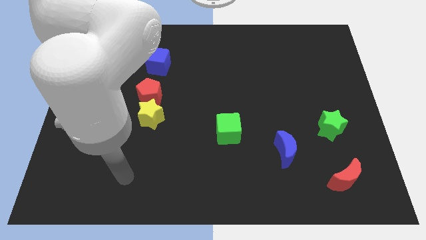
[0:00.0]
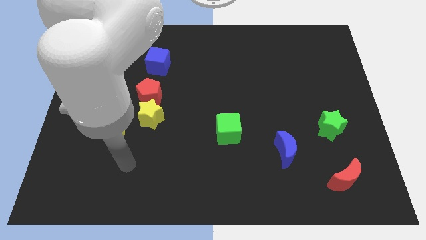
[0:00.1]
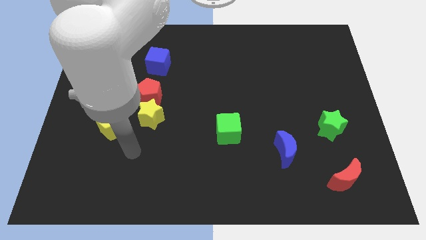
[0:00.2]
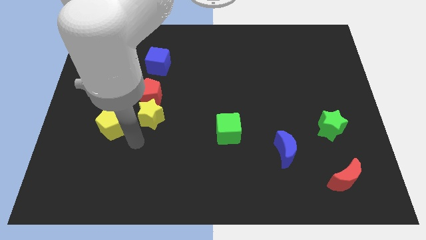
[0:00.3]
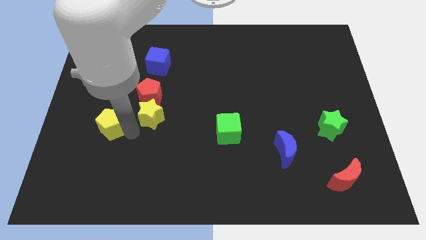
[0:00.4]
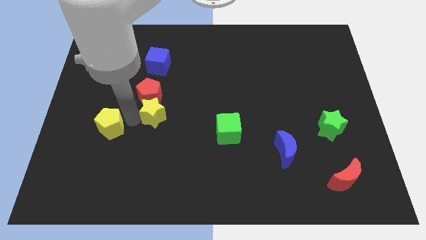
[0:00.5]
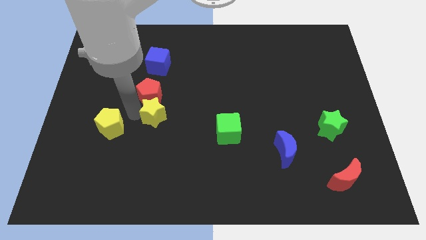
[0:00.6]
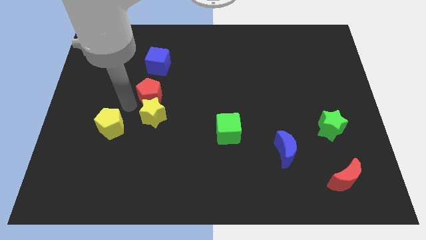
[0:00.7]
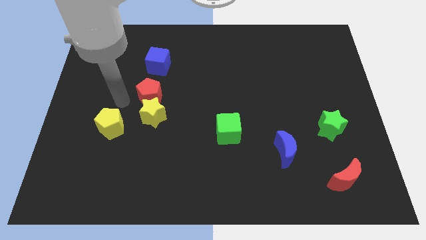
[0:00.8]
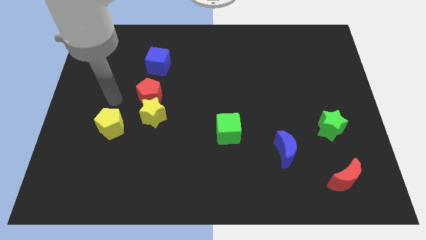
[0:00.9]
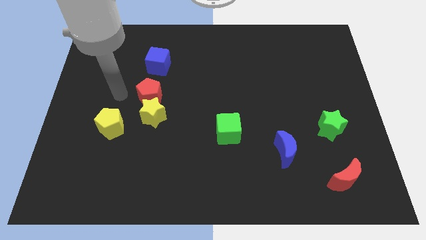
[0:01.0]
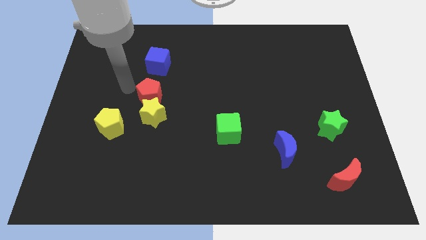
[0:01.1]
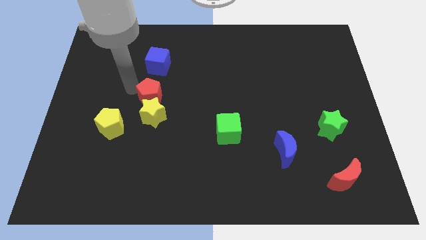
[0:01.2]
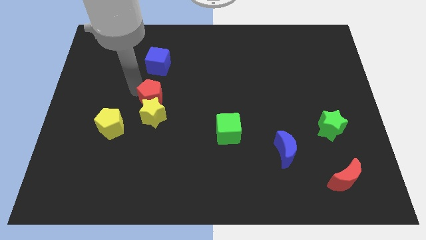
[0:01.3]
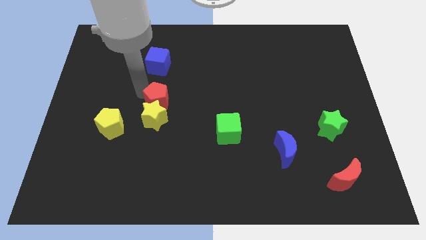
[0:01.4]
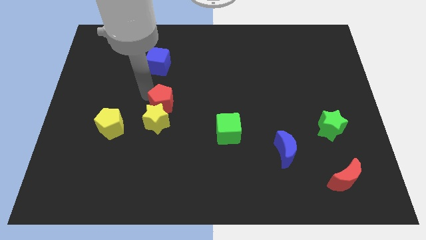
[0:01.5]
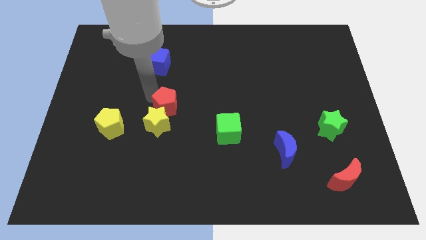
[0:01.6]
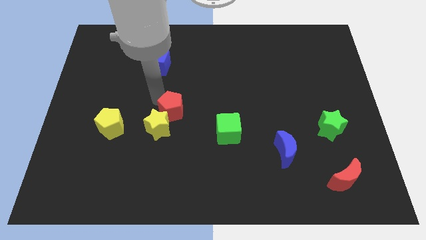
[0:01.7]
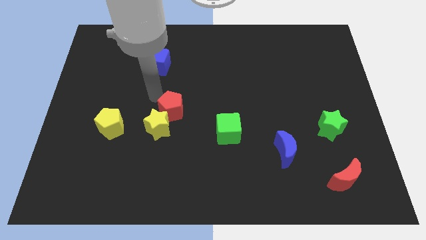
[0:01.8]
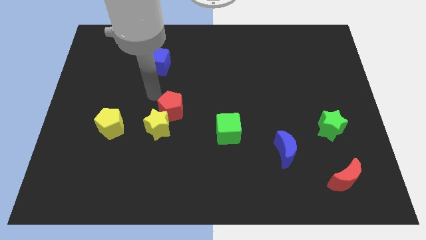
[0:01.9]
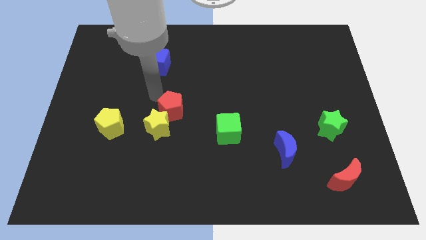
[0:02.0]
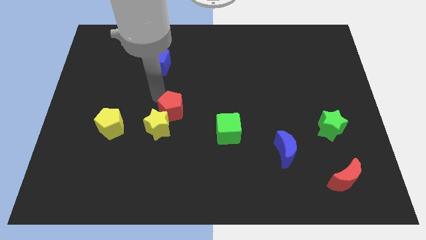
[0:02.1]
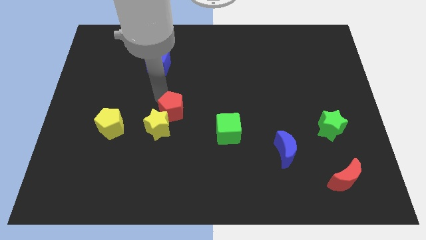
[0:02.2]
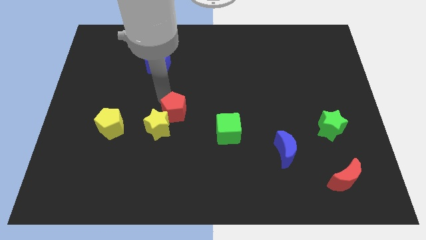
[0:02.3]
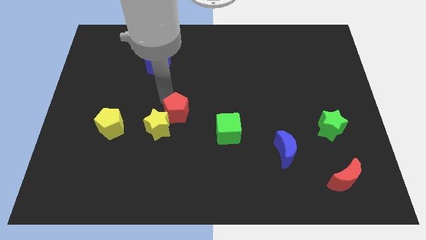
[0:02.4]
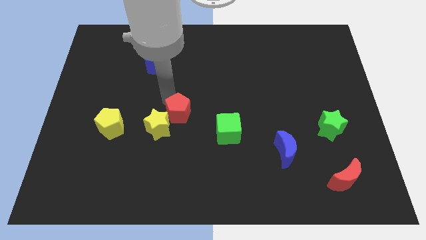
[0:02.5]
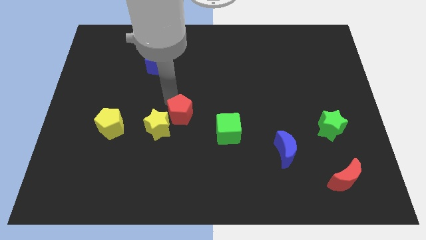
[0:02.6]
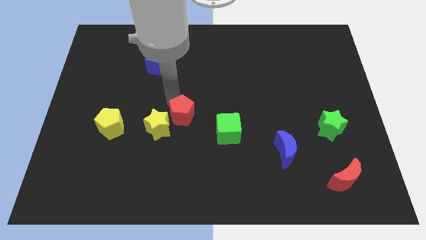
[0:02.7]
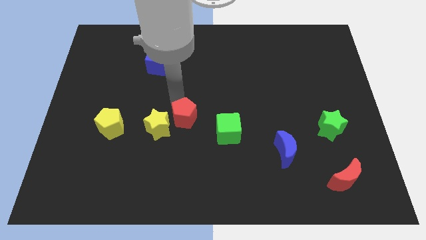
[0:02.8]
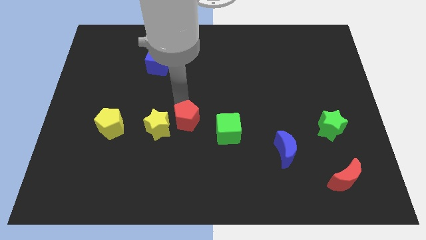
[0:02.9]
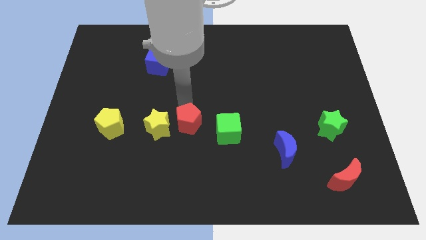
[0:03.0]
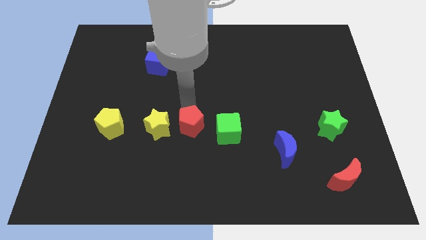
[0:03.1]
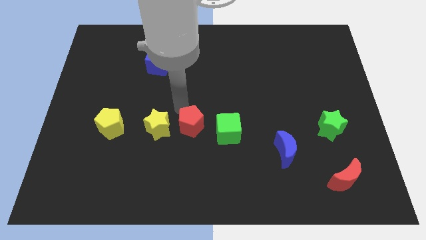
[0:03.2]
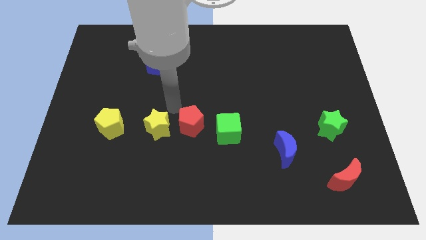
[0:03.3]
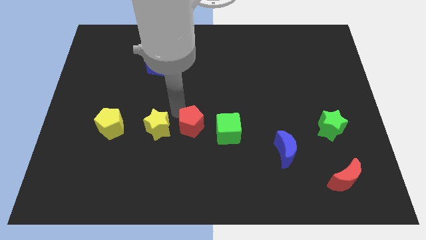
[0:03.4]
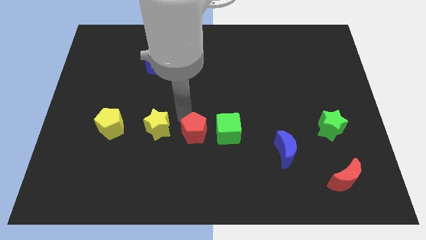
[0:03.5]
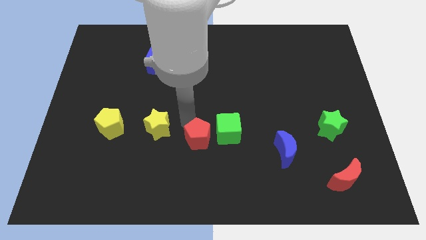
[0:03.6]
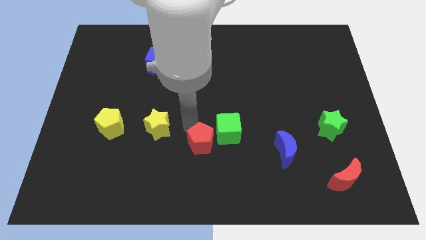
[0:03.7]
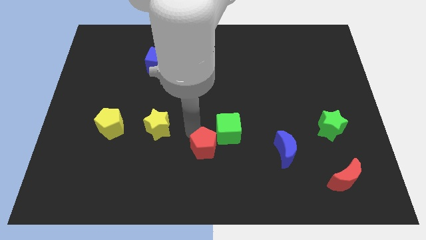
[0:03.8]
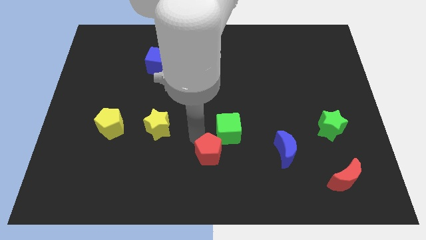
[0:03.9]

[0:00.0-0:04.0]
slide the red pentagon down and right

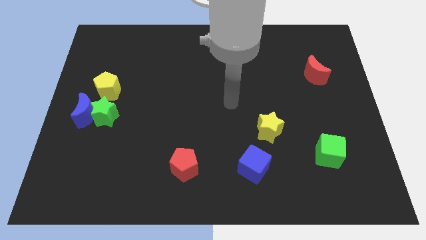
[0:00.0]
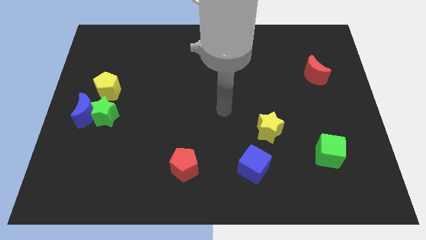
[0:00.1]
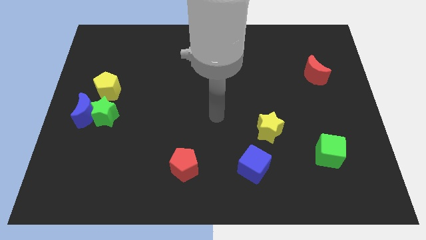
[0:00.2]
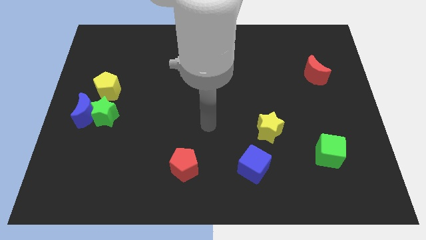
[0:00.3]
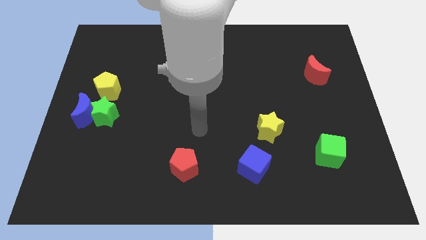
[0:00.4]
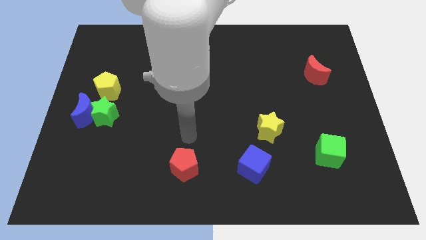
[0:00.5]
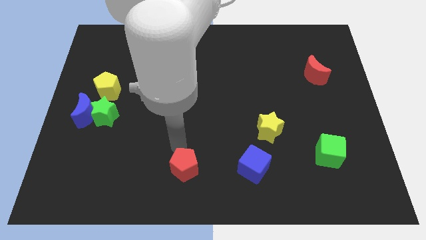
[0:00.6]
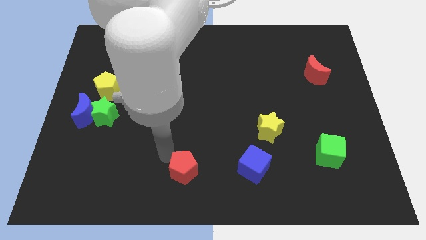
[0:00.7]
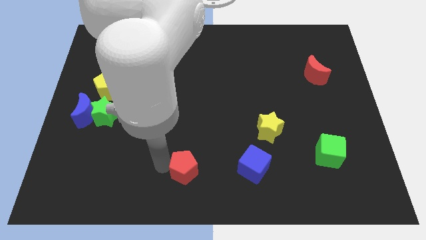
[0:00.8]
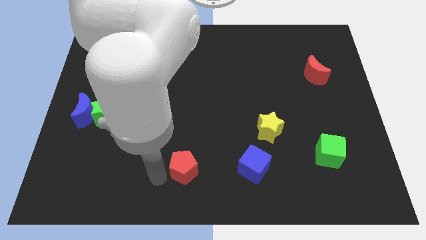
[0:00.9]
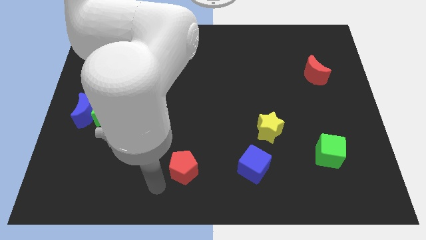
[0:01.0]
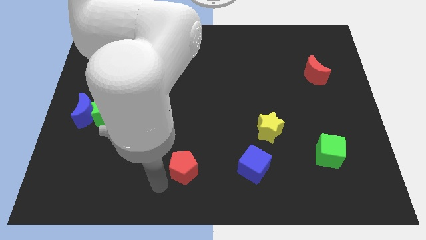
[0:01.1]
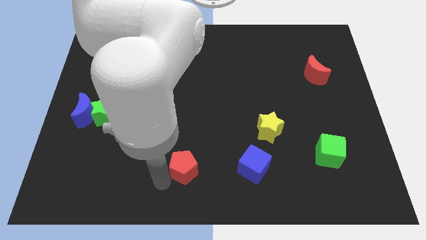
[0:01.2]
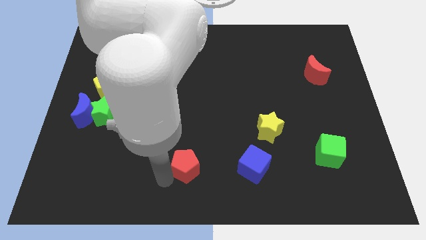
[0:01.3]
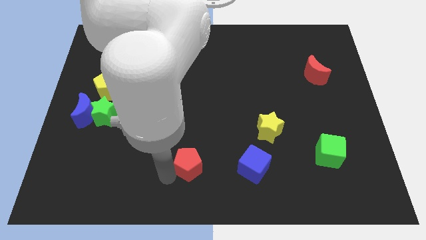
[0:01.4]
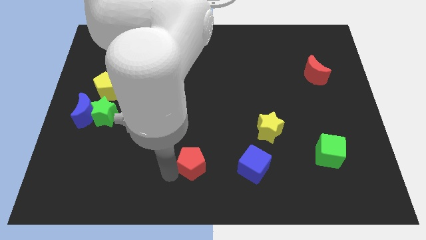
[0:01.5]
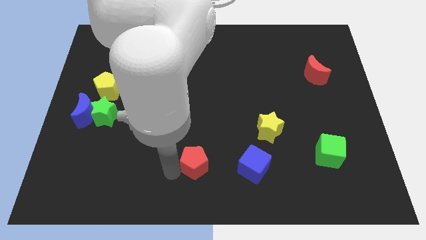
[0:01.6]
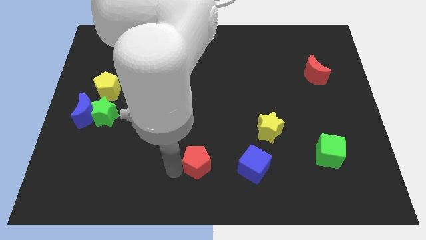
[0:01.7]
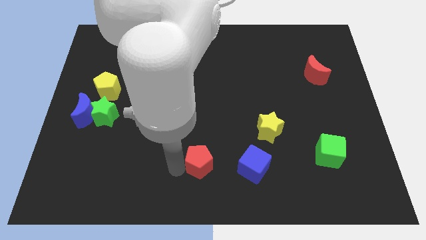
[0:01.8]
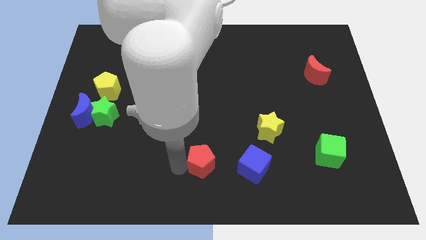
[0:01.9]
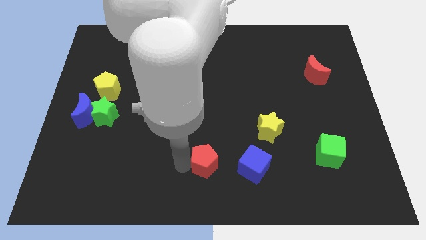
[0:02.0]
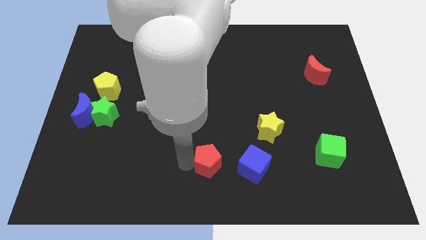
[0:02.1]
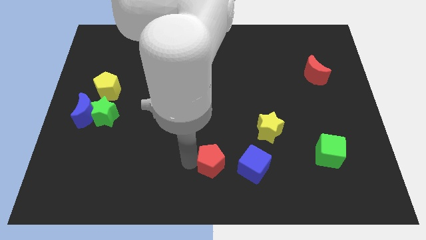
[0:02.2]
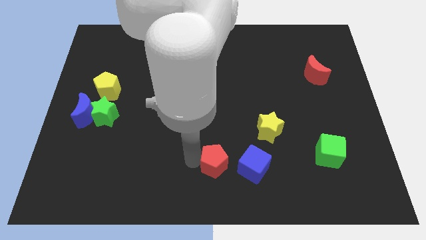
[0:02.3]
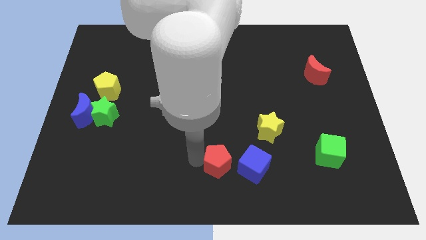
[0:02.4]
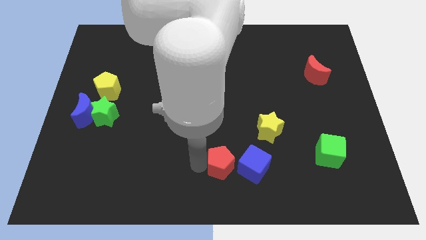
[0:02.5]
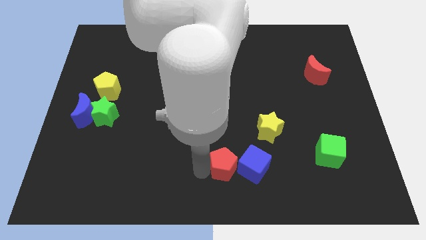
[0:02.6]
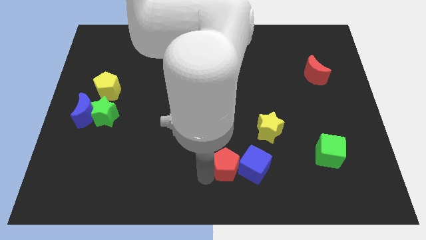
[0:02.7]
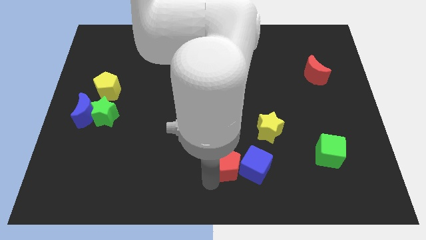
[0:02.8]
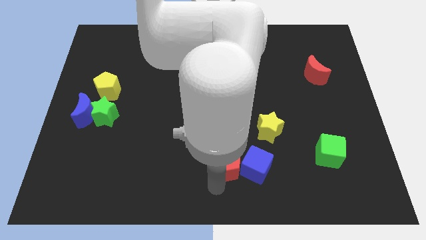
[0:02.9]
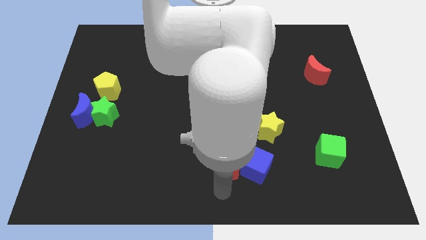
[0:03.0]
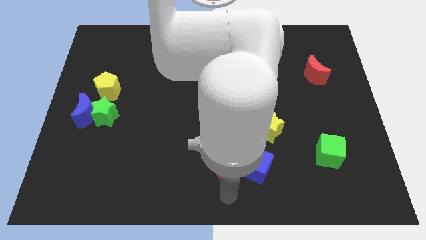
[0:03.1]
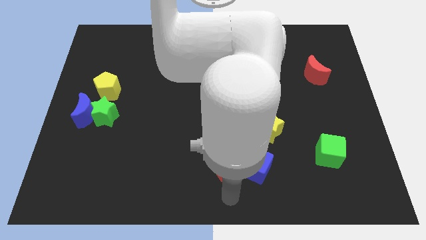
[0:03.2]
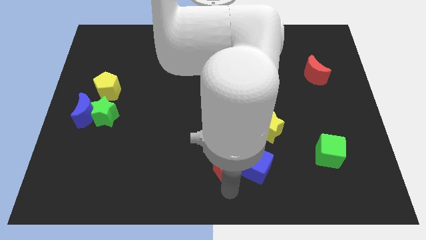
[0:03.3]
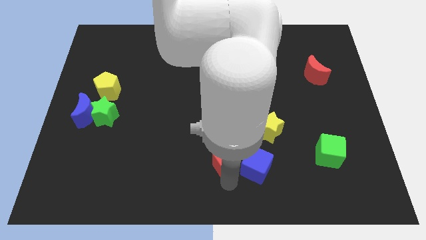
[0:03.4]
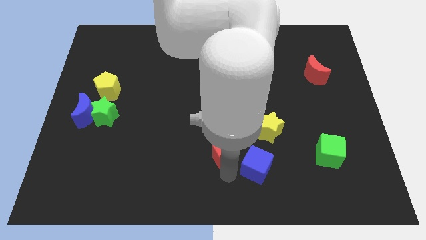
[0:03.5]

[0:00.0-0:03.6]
push the red pentagon diagonally up and to the right a little

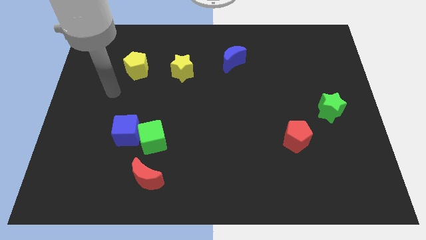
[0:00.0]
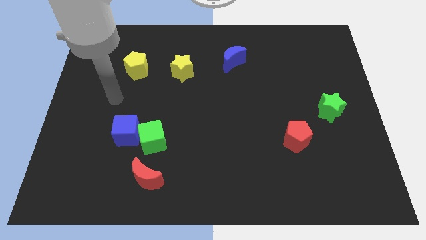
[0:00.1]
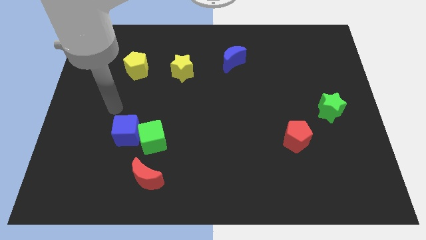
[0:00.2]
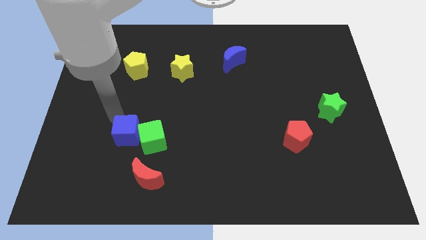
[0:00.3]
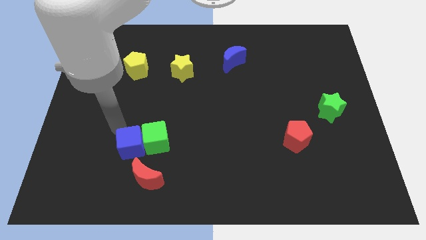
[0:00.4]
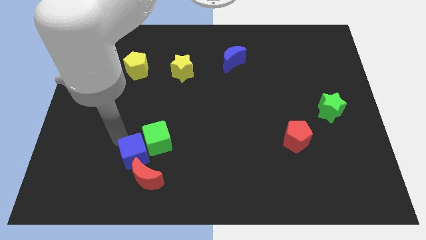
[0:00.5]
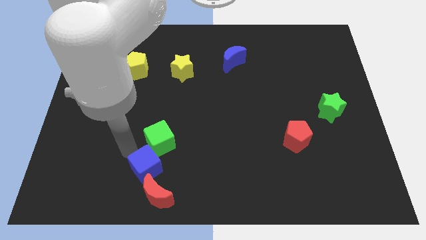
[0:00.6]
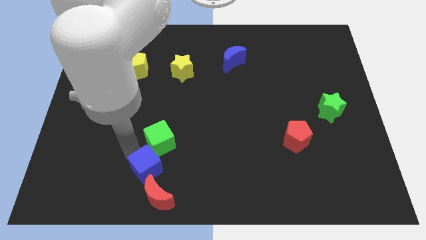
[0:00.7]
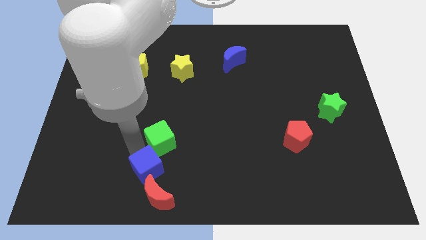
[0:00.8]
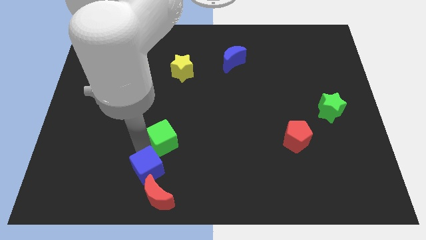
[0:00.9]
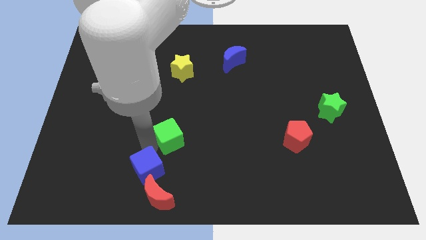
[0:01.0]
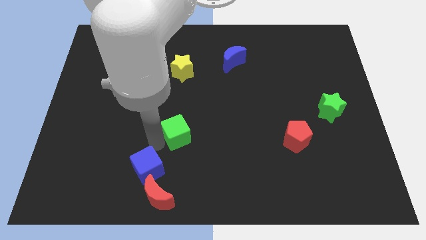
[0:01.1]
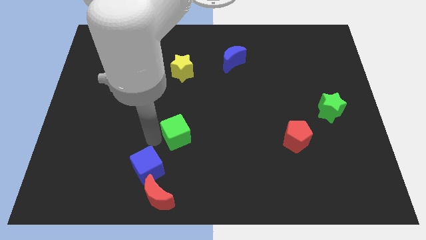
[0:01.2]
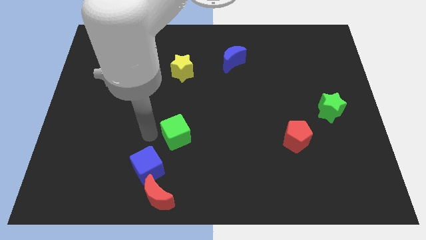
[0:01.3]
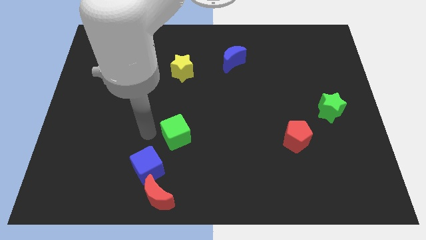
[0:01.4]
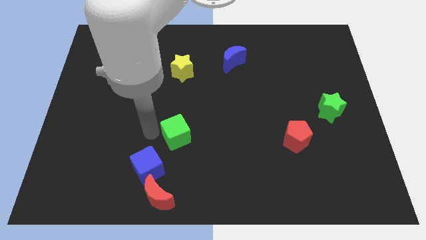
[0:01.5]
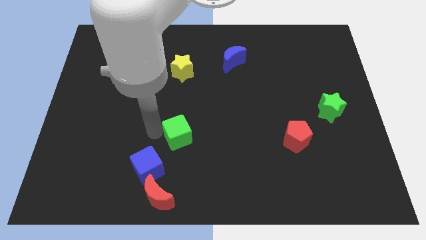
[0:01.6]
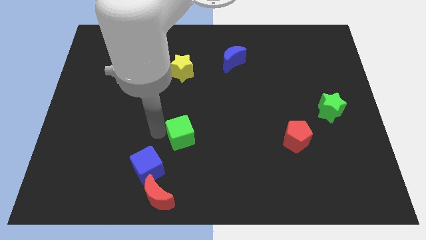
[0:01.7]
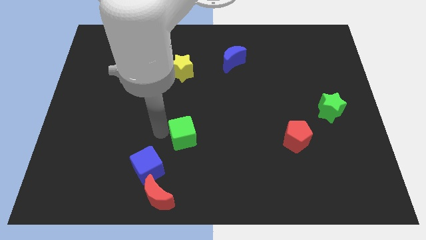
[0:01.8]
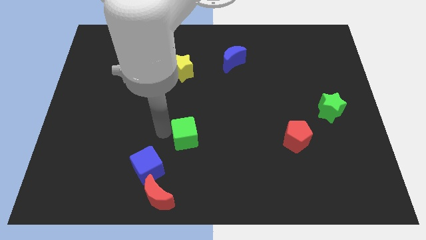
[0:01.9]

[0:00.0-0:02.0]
push the green cube to the right a bit
